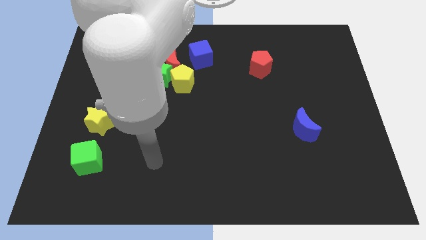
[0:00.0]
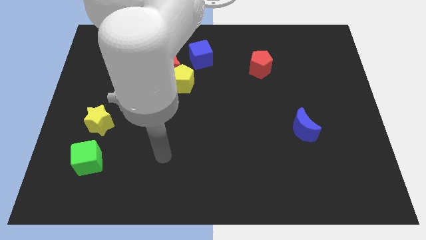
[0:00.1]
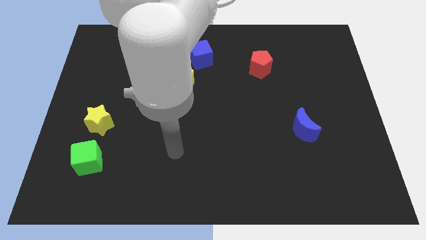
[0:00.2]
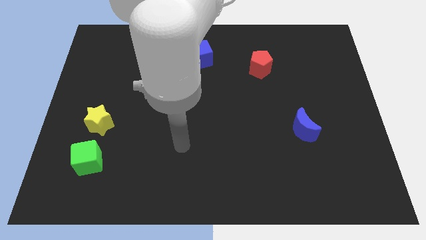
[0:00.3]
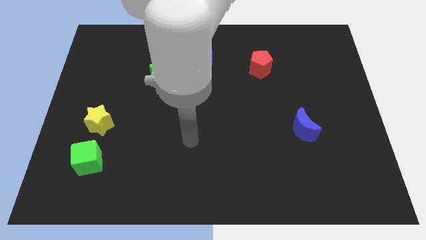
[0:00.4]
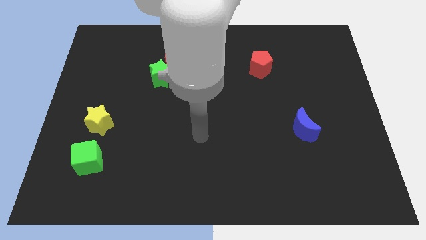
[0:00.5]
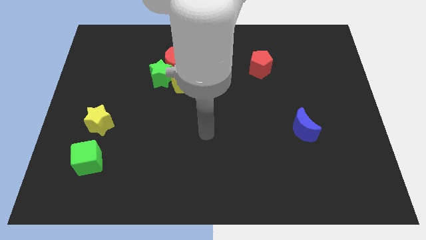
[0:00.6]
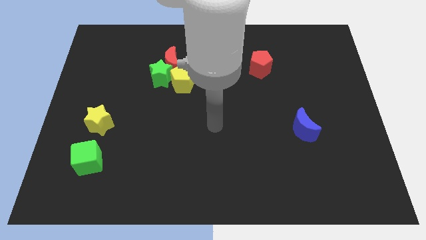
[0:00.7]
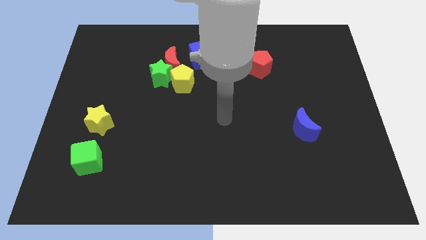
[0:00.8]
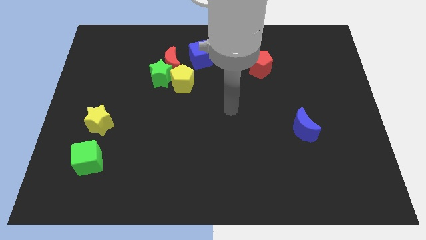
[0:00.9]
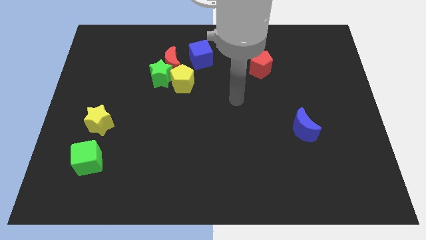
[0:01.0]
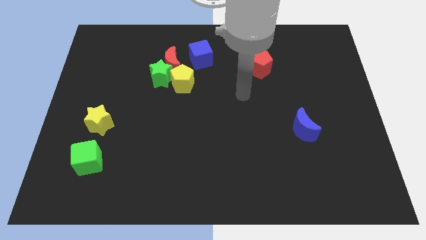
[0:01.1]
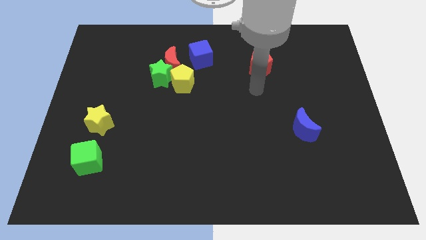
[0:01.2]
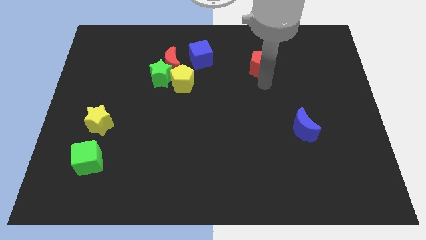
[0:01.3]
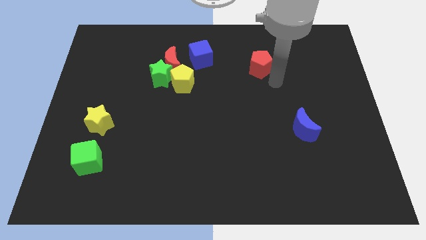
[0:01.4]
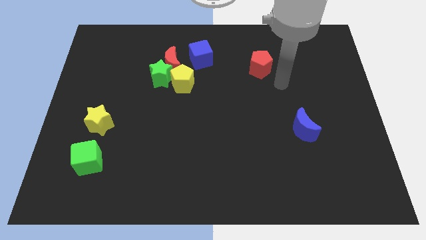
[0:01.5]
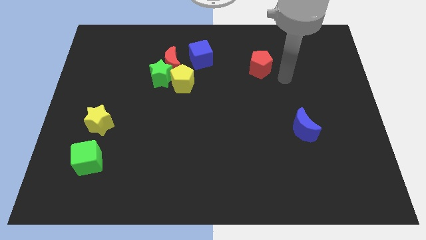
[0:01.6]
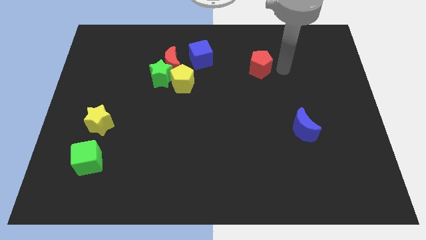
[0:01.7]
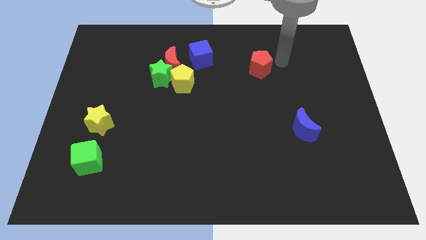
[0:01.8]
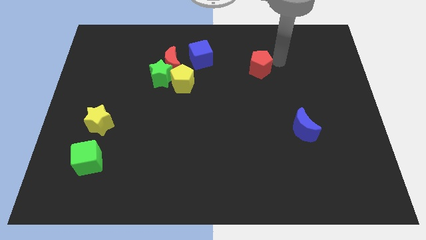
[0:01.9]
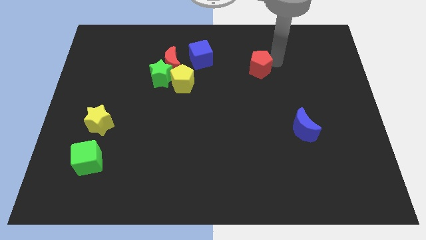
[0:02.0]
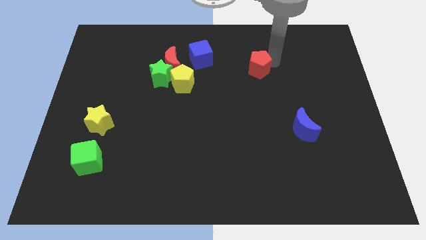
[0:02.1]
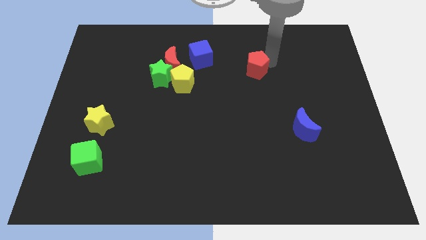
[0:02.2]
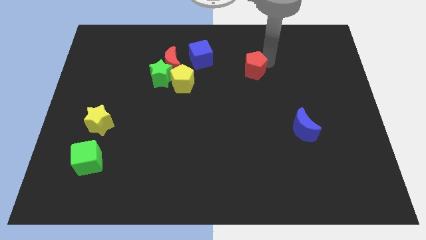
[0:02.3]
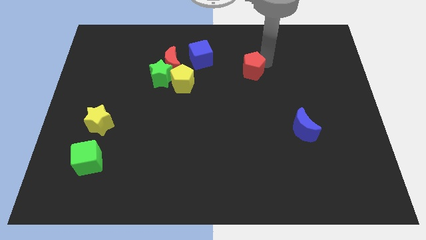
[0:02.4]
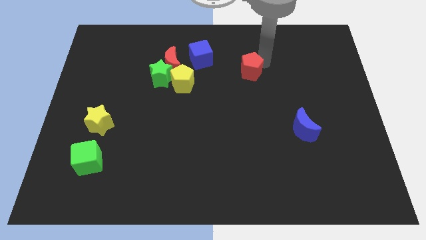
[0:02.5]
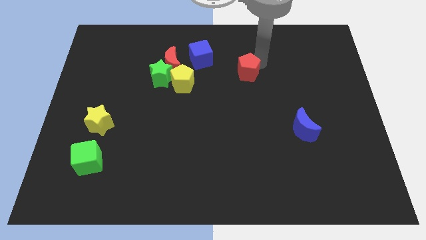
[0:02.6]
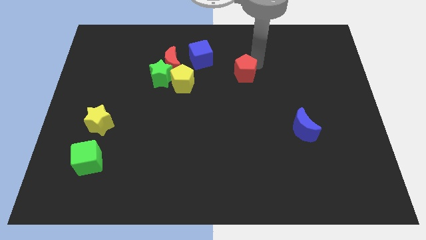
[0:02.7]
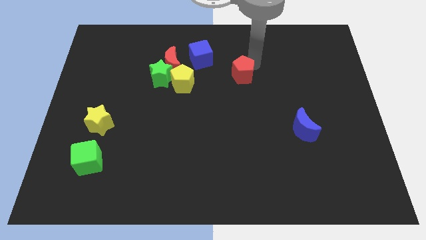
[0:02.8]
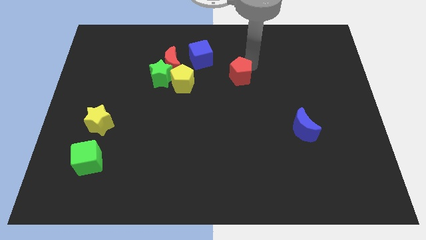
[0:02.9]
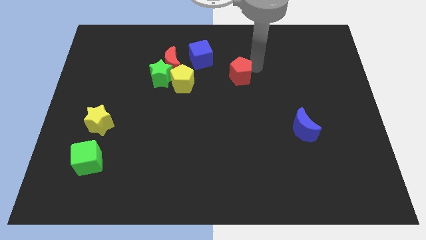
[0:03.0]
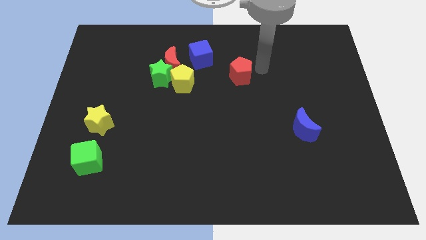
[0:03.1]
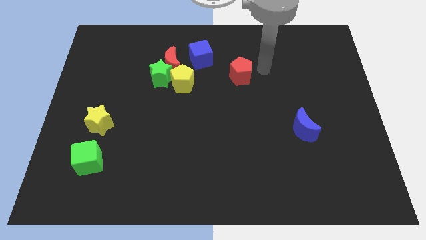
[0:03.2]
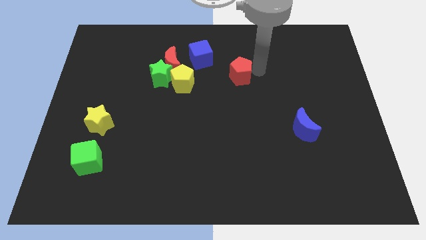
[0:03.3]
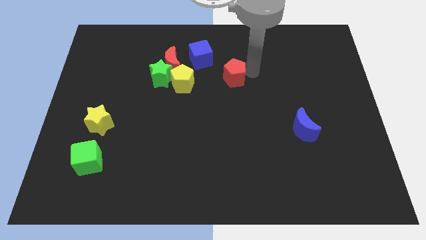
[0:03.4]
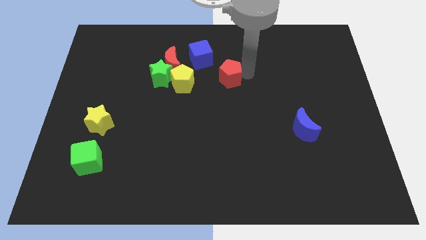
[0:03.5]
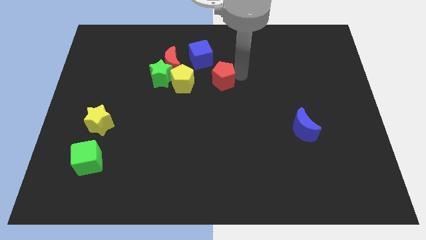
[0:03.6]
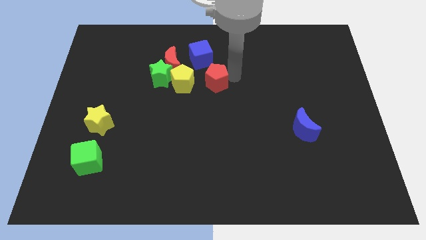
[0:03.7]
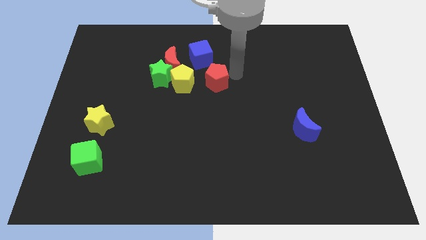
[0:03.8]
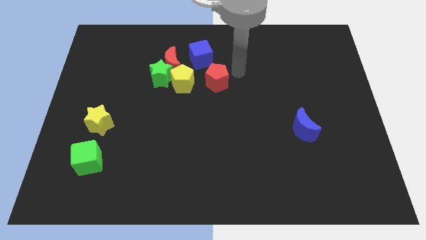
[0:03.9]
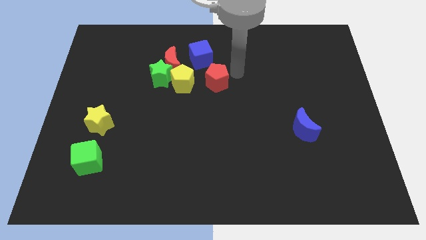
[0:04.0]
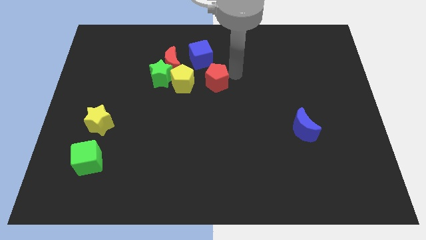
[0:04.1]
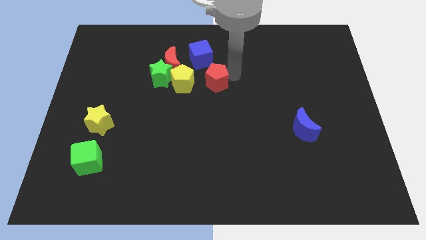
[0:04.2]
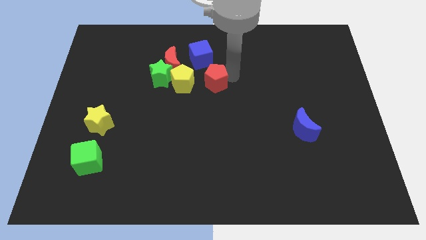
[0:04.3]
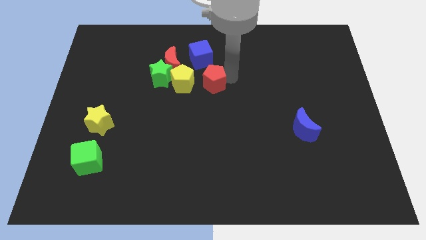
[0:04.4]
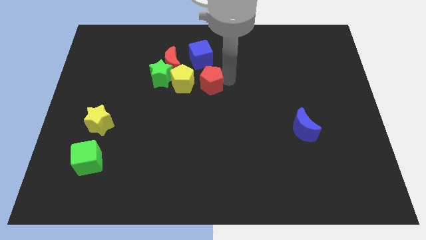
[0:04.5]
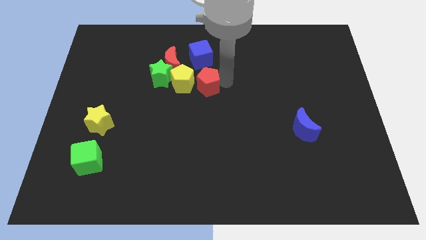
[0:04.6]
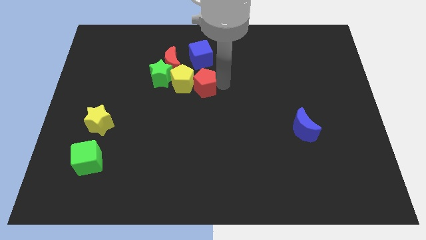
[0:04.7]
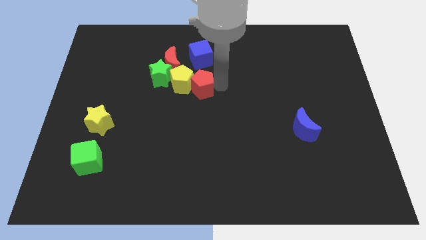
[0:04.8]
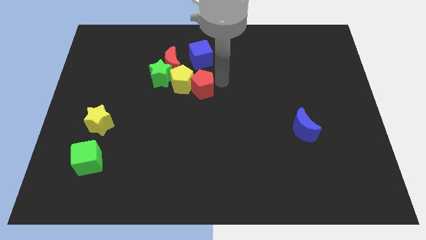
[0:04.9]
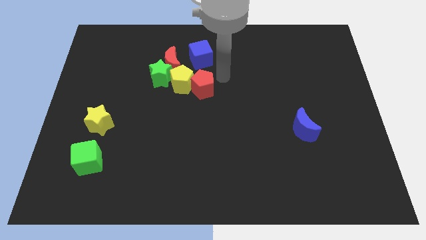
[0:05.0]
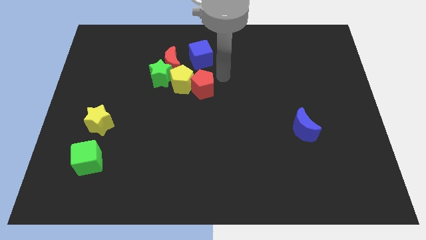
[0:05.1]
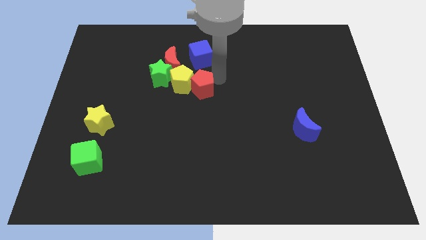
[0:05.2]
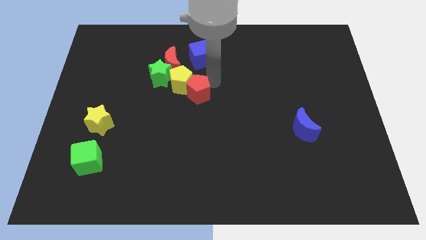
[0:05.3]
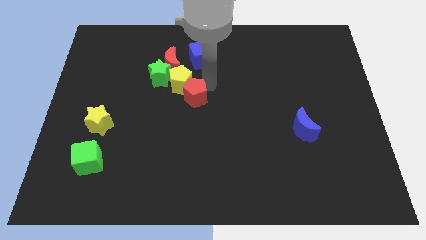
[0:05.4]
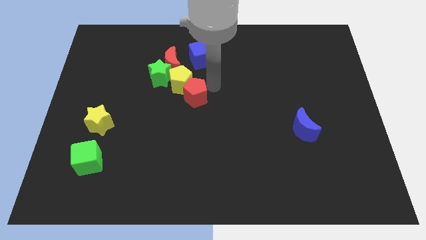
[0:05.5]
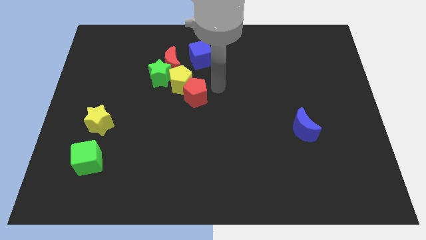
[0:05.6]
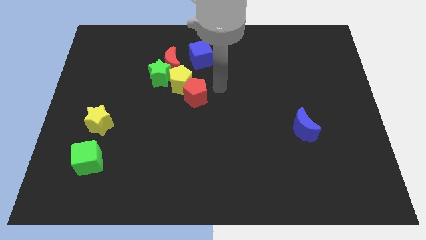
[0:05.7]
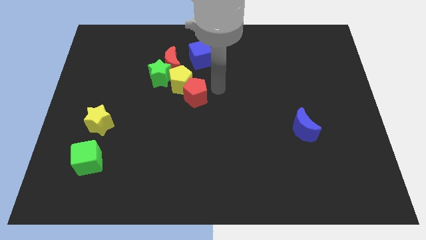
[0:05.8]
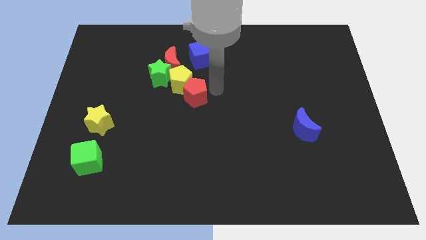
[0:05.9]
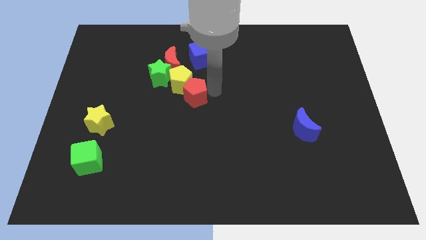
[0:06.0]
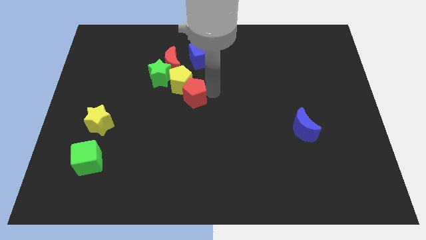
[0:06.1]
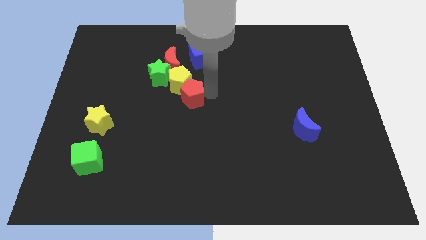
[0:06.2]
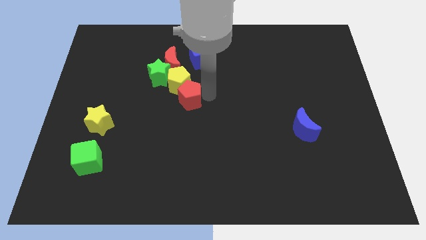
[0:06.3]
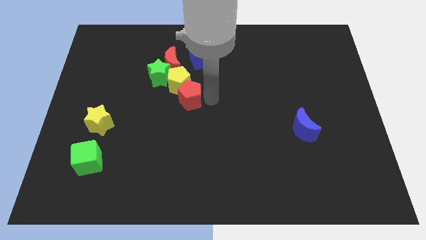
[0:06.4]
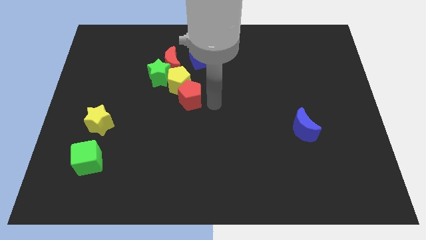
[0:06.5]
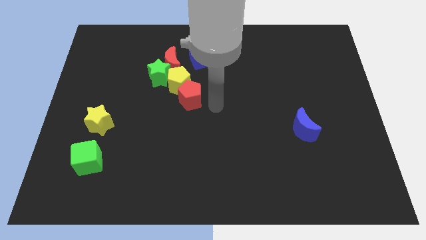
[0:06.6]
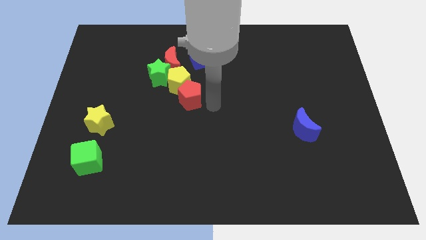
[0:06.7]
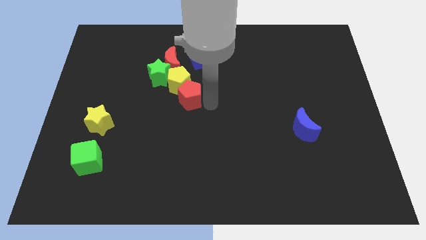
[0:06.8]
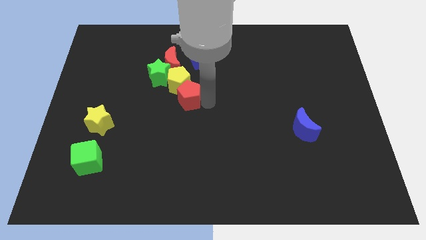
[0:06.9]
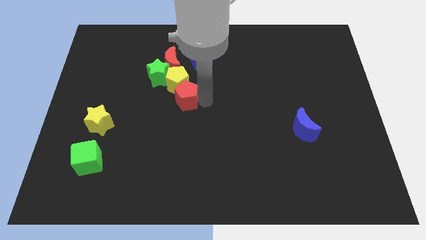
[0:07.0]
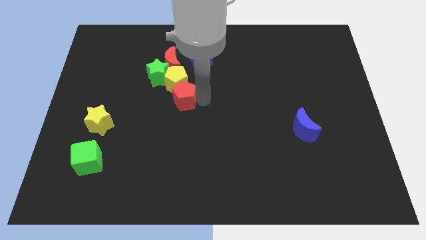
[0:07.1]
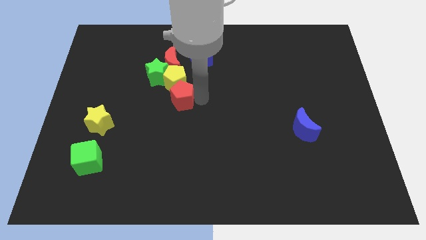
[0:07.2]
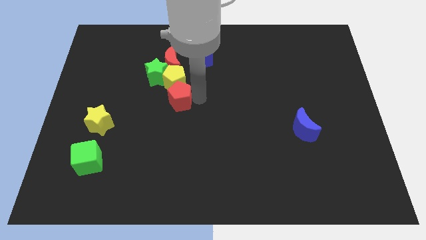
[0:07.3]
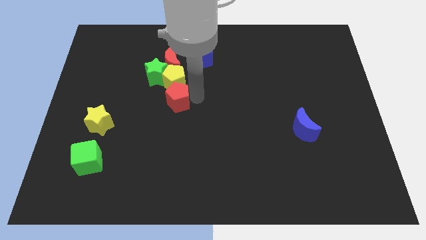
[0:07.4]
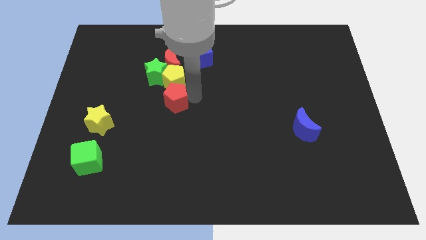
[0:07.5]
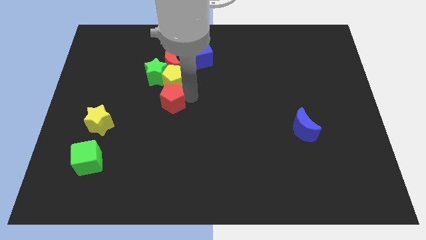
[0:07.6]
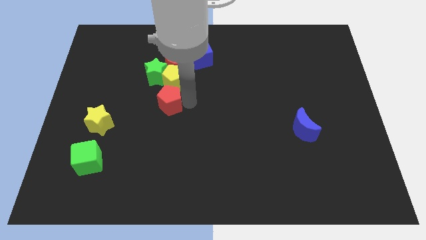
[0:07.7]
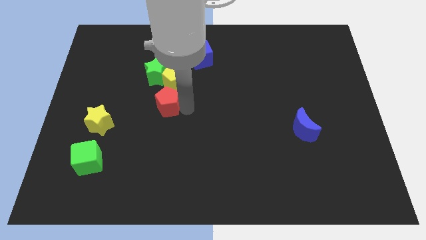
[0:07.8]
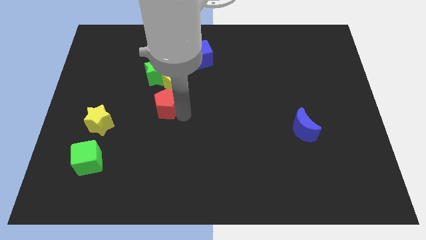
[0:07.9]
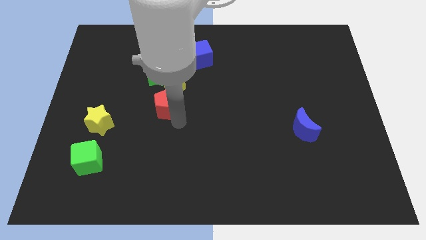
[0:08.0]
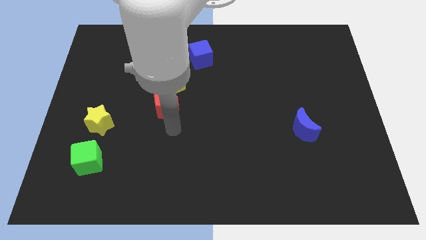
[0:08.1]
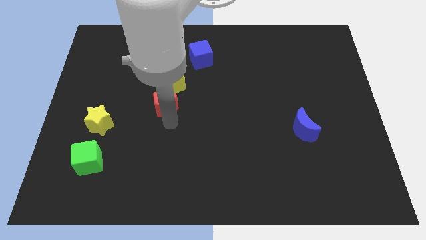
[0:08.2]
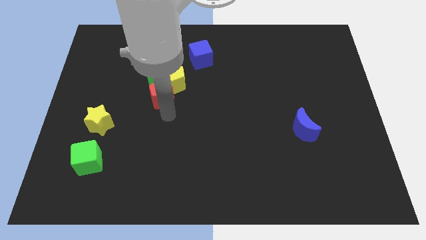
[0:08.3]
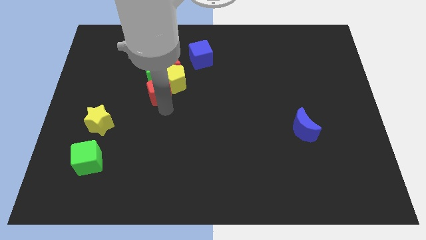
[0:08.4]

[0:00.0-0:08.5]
move the red pentagon to the green star
